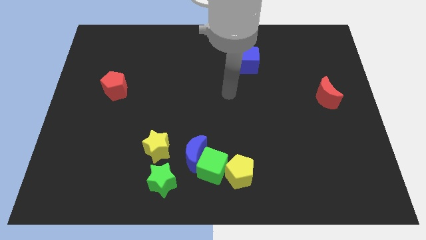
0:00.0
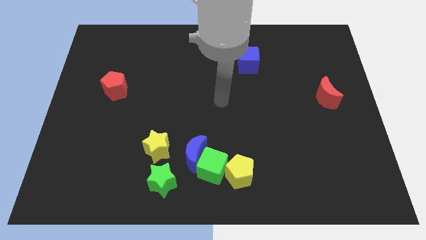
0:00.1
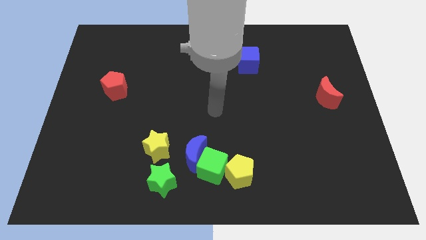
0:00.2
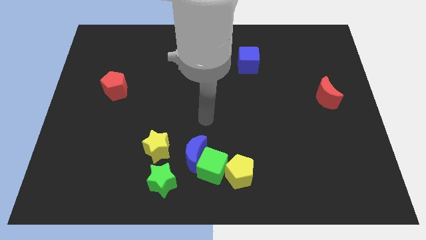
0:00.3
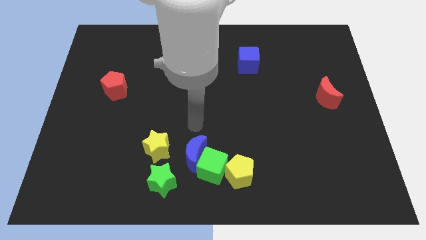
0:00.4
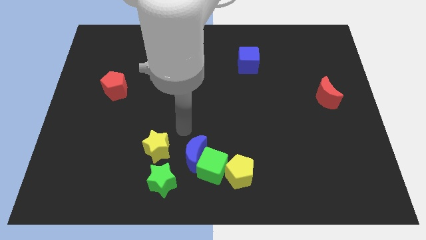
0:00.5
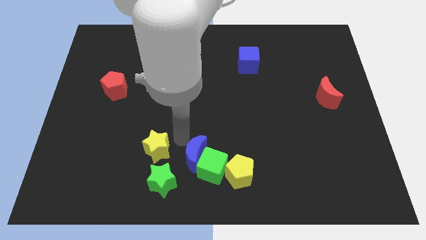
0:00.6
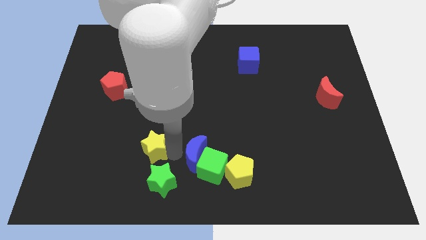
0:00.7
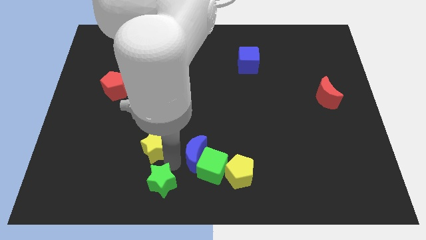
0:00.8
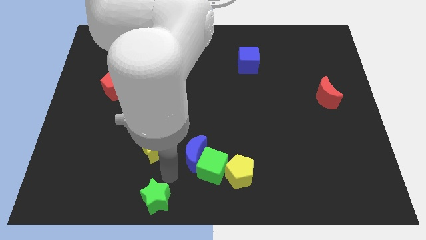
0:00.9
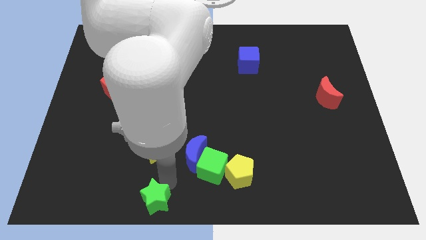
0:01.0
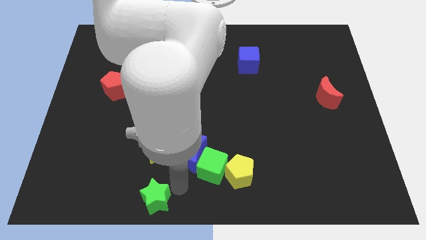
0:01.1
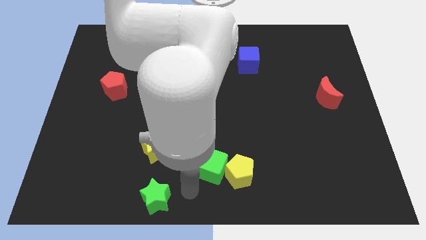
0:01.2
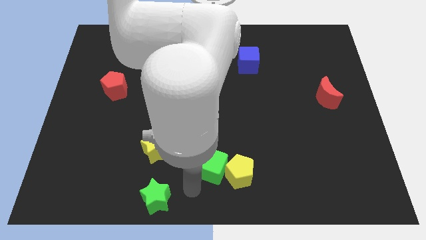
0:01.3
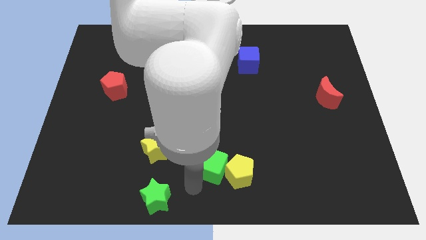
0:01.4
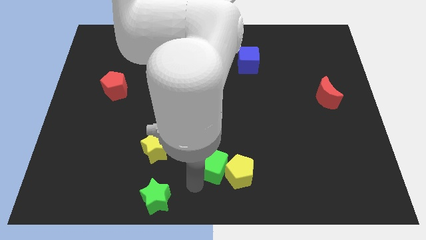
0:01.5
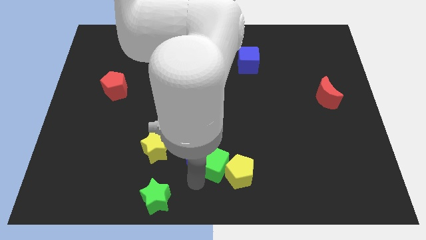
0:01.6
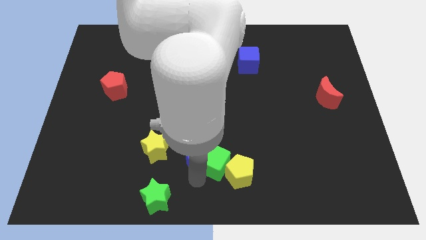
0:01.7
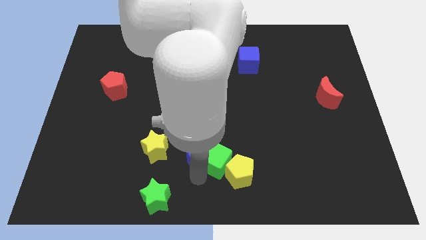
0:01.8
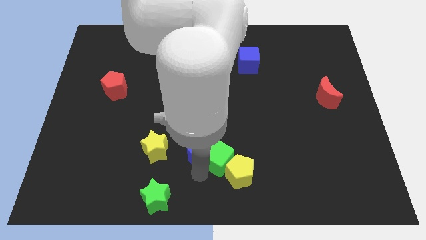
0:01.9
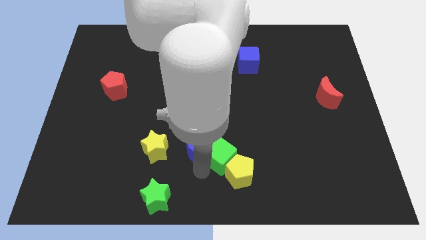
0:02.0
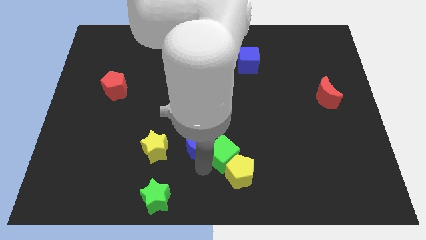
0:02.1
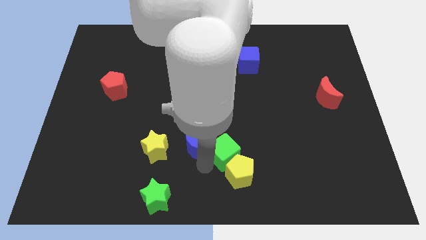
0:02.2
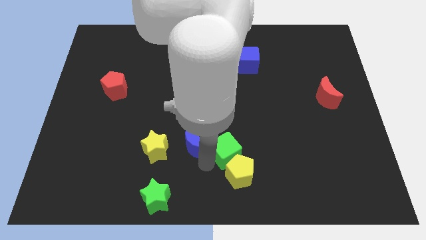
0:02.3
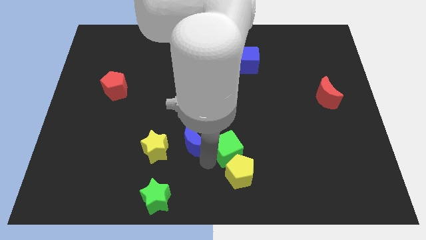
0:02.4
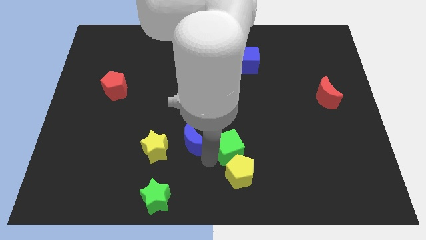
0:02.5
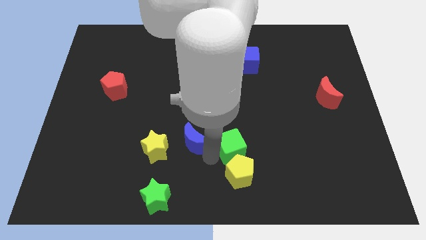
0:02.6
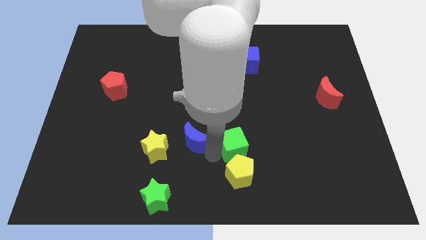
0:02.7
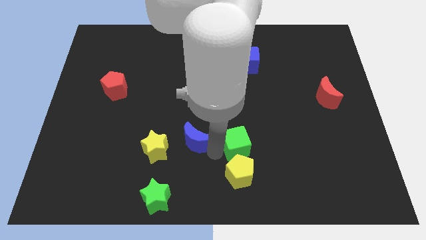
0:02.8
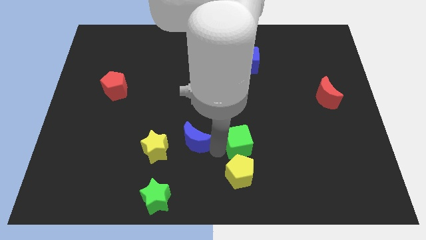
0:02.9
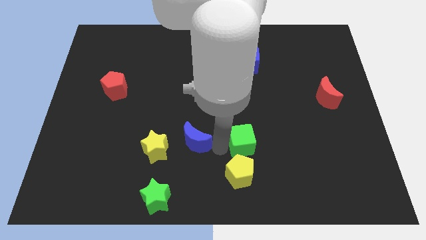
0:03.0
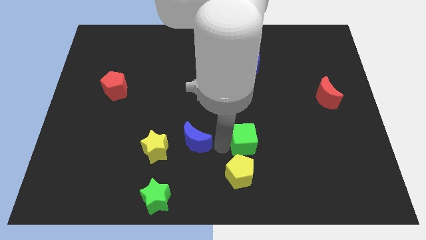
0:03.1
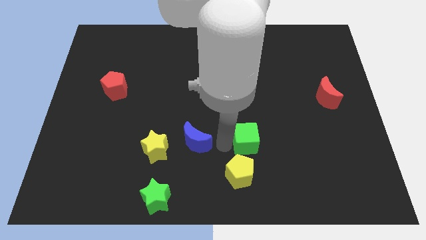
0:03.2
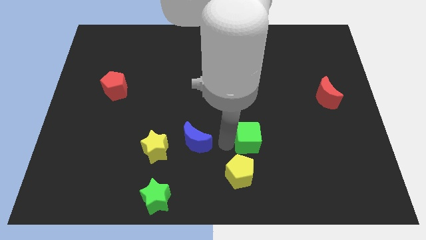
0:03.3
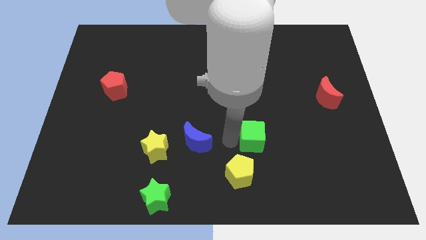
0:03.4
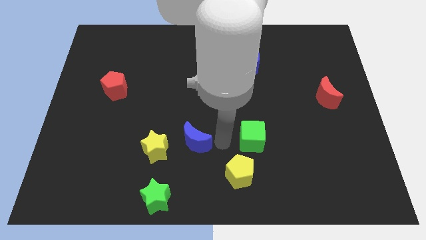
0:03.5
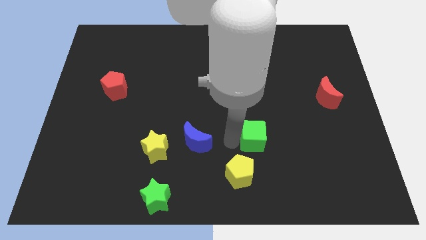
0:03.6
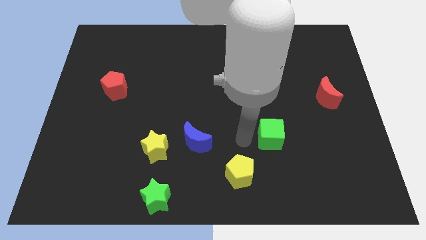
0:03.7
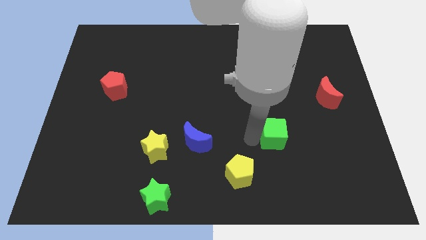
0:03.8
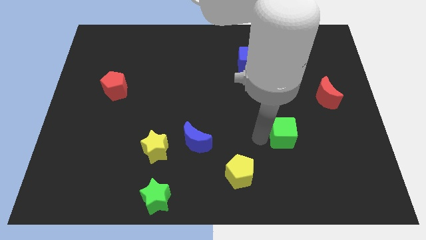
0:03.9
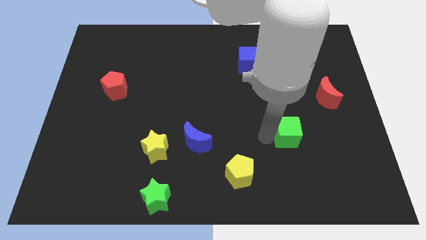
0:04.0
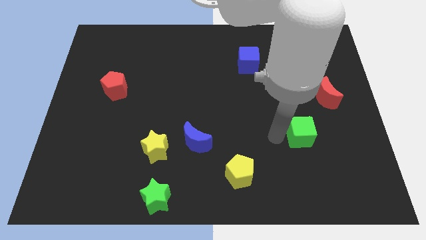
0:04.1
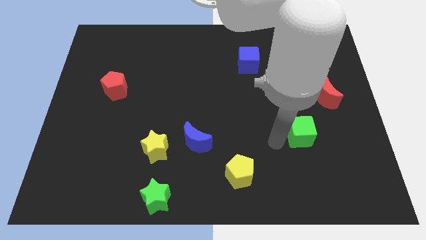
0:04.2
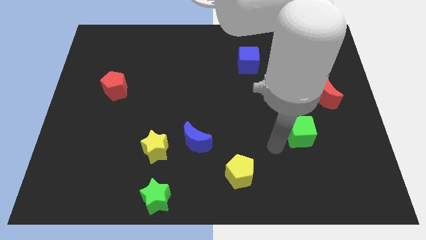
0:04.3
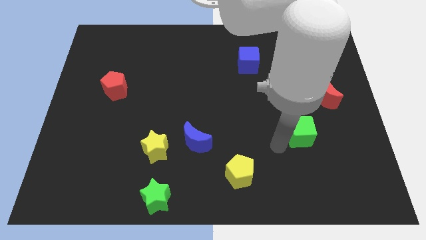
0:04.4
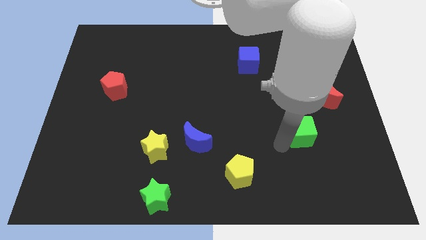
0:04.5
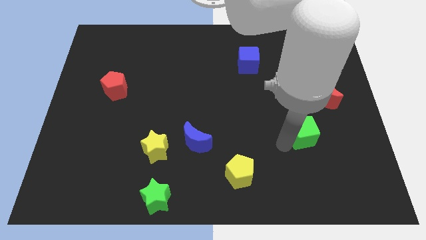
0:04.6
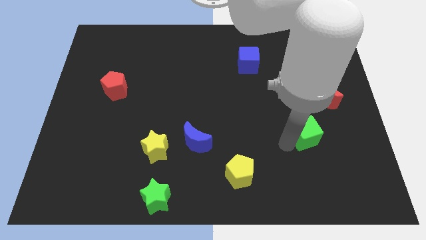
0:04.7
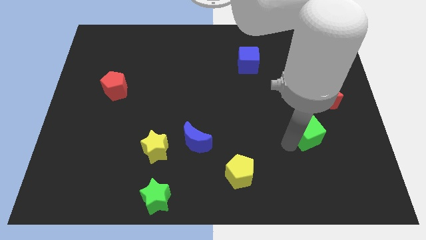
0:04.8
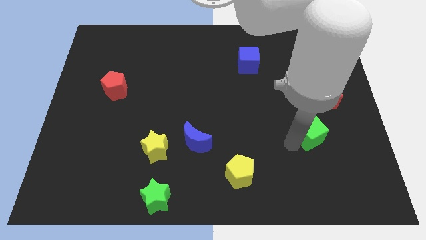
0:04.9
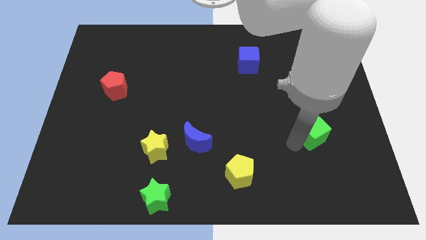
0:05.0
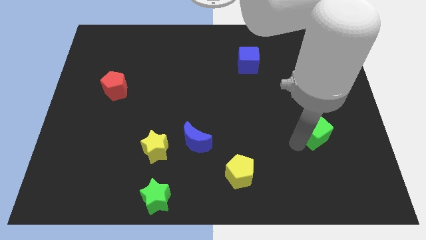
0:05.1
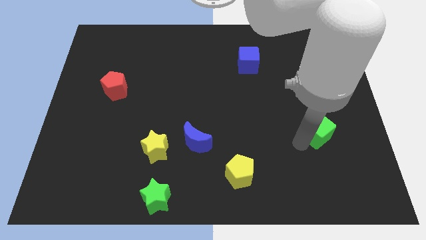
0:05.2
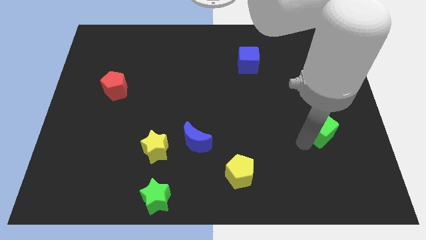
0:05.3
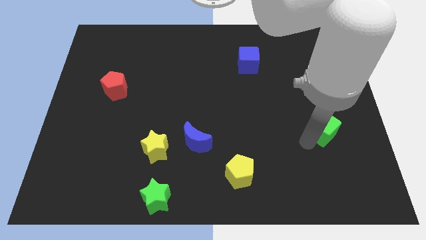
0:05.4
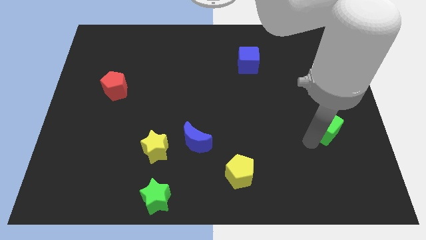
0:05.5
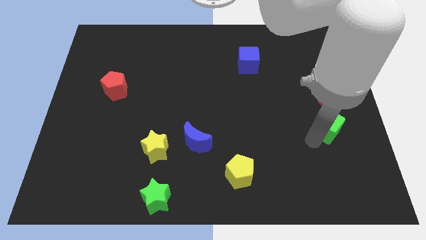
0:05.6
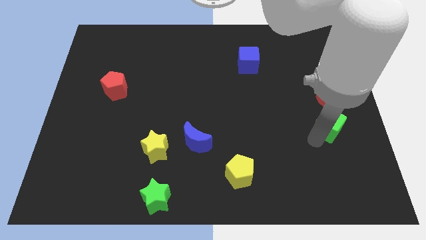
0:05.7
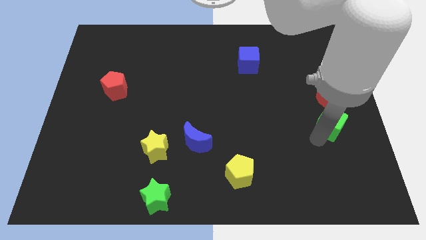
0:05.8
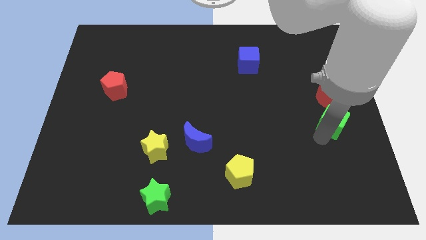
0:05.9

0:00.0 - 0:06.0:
put the green cube to the center right
